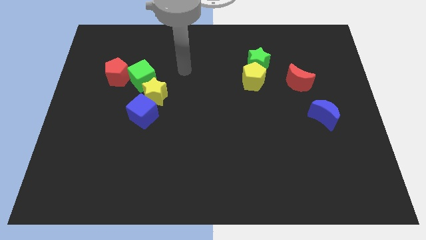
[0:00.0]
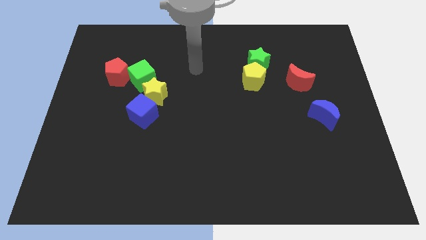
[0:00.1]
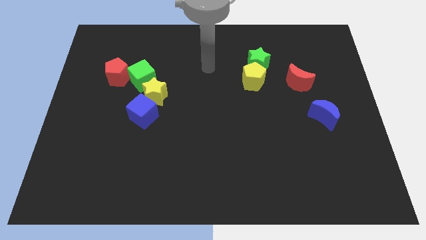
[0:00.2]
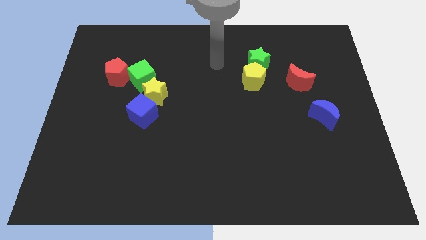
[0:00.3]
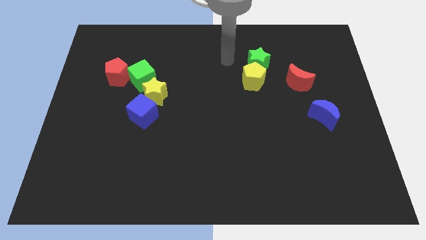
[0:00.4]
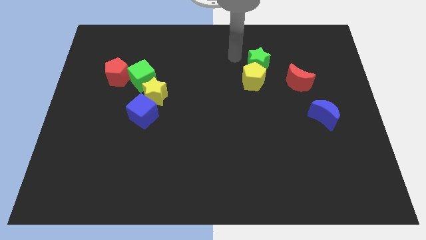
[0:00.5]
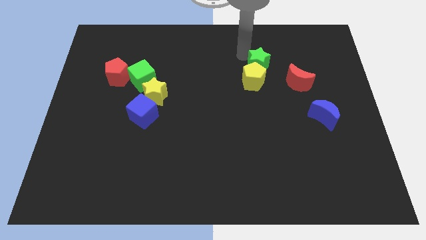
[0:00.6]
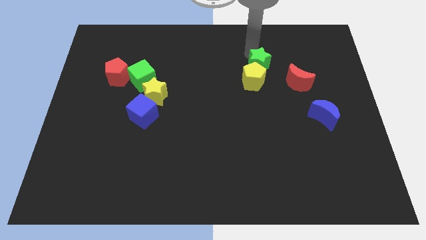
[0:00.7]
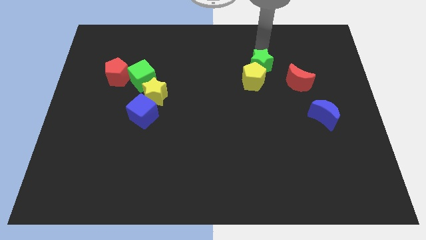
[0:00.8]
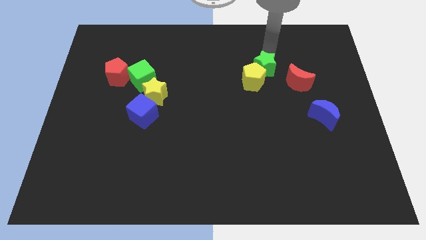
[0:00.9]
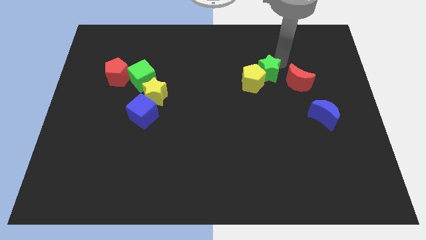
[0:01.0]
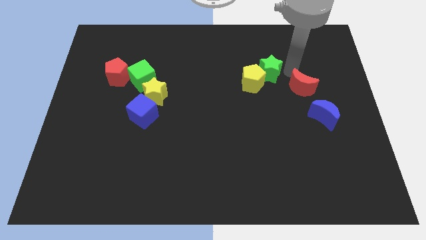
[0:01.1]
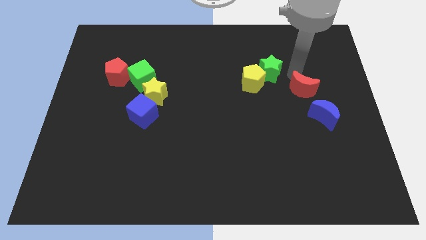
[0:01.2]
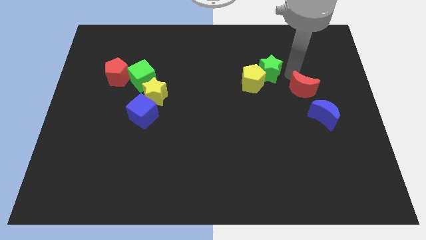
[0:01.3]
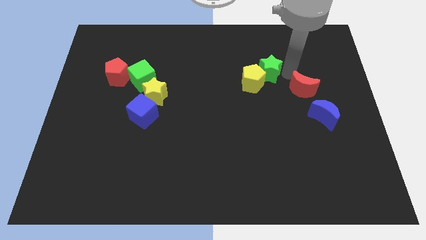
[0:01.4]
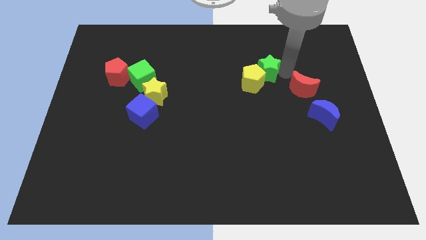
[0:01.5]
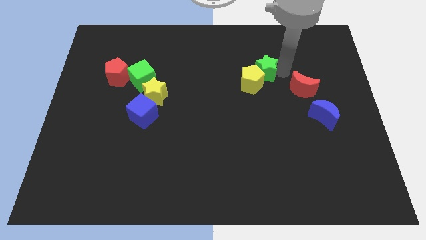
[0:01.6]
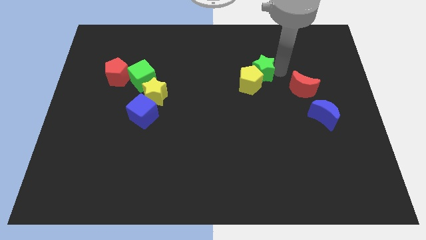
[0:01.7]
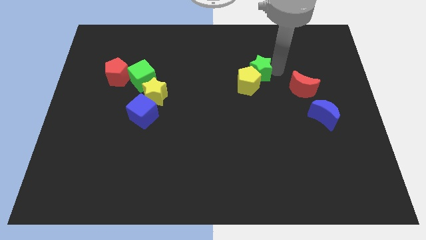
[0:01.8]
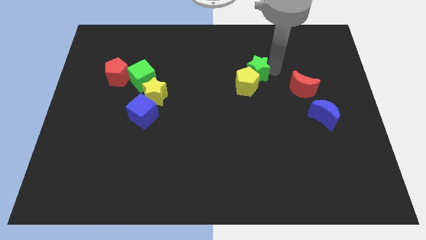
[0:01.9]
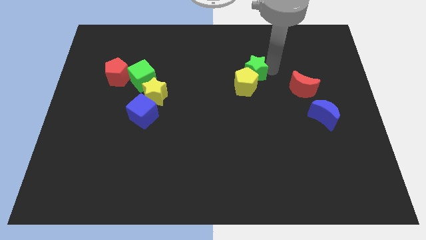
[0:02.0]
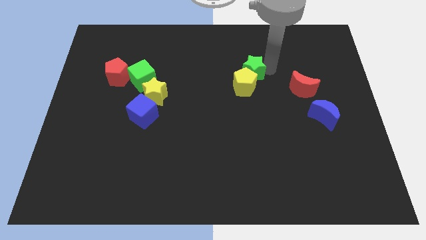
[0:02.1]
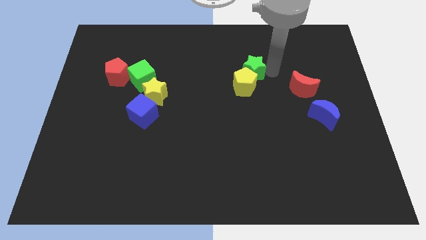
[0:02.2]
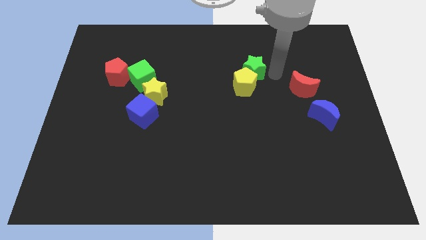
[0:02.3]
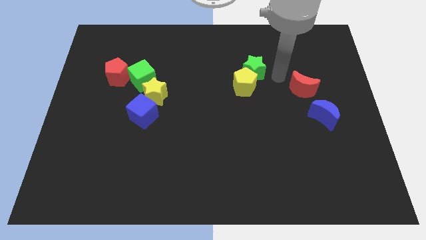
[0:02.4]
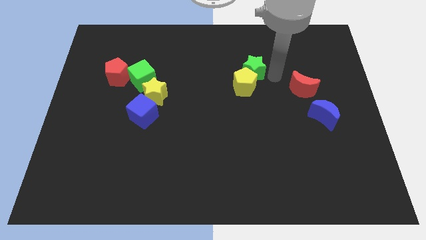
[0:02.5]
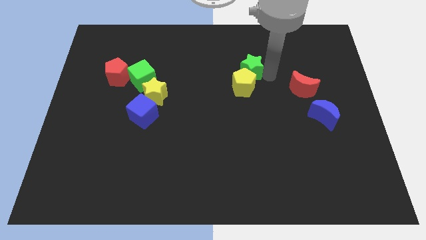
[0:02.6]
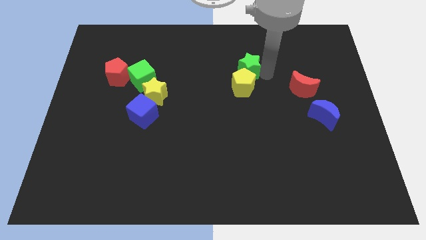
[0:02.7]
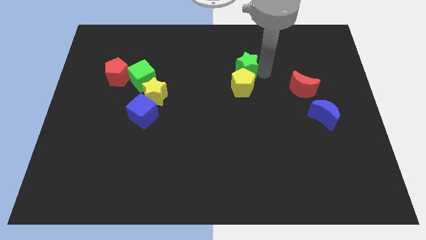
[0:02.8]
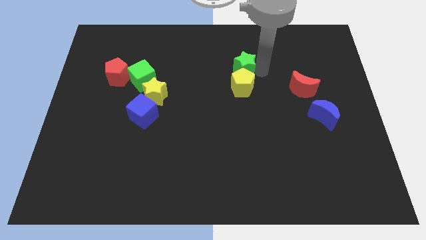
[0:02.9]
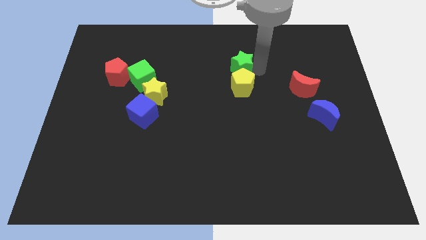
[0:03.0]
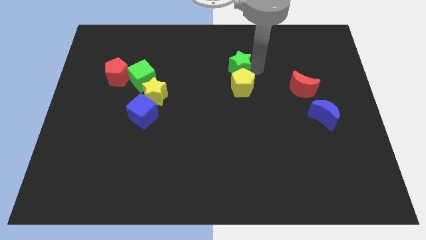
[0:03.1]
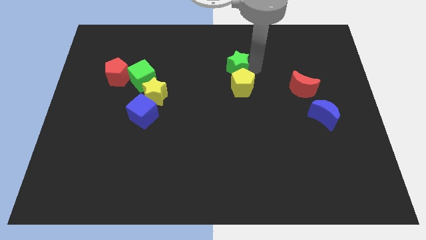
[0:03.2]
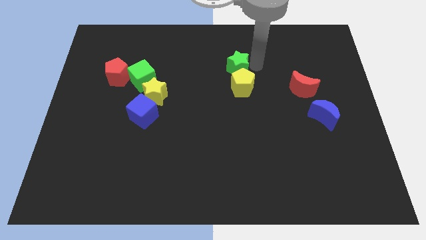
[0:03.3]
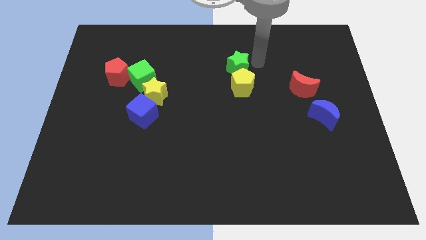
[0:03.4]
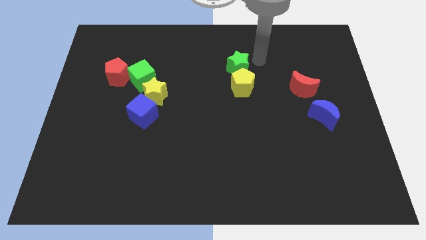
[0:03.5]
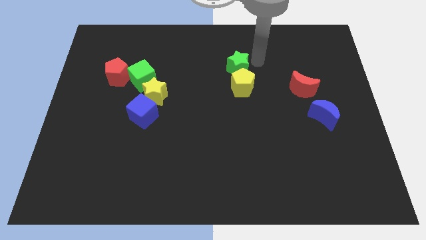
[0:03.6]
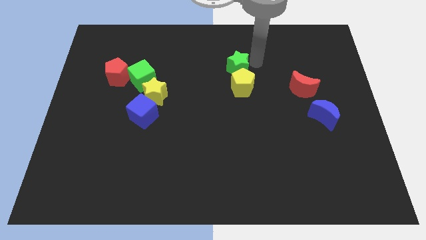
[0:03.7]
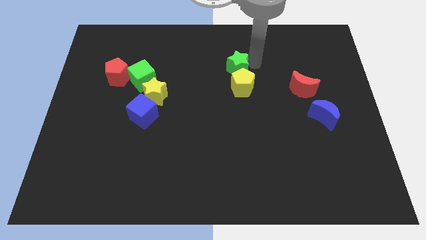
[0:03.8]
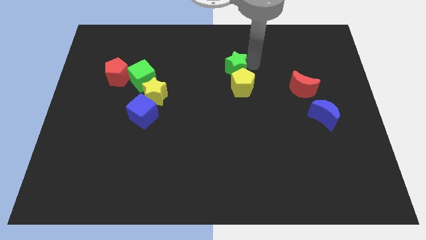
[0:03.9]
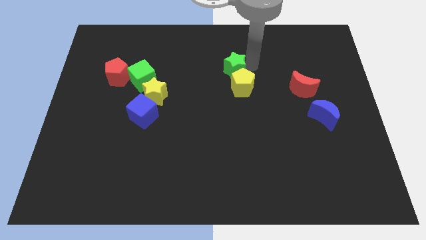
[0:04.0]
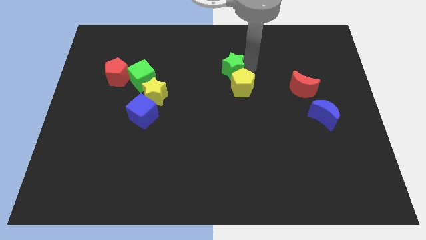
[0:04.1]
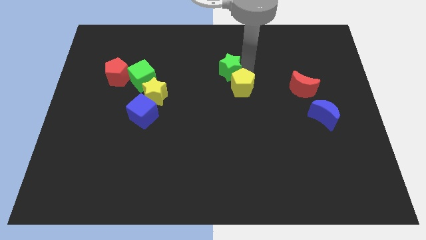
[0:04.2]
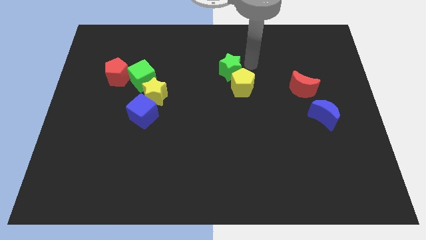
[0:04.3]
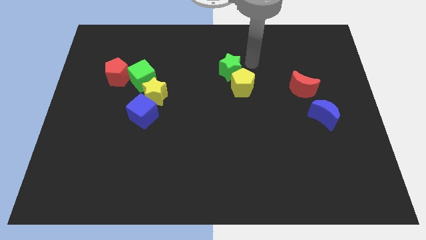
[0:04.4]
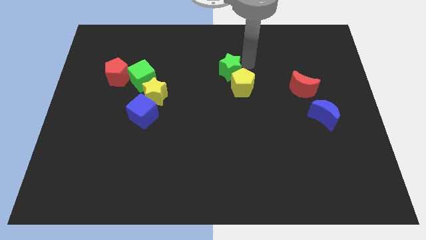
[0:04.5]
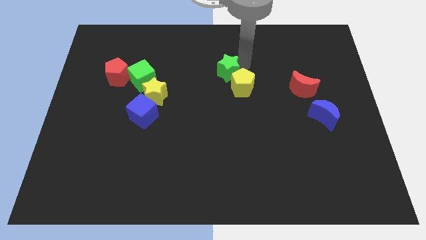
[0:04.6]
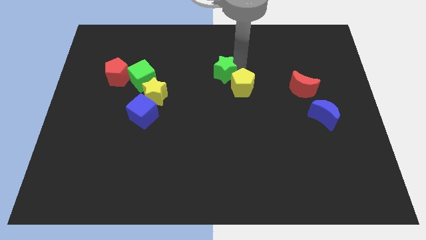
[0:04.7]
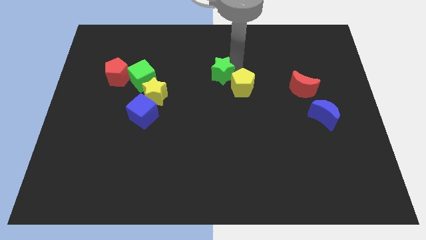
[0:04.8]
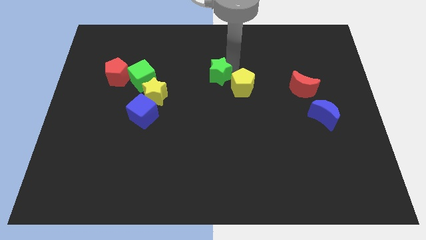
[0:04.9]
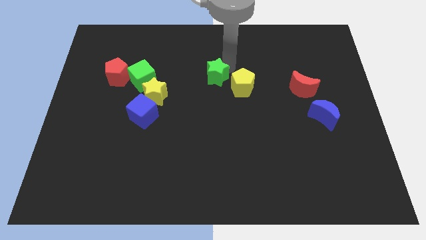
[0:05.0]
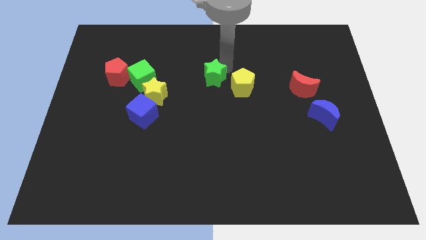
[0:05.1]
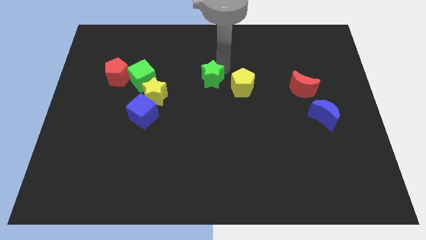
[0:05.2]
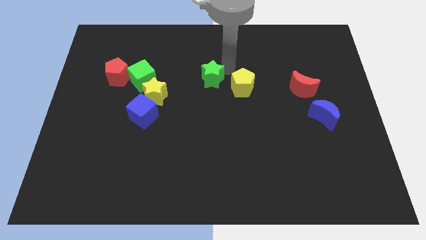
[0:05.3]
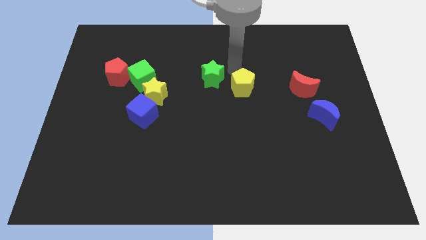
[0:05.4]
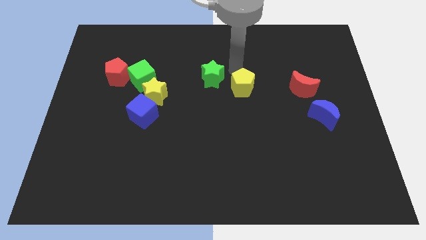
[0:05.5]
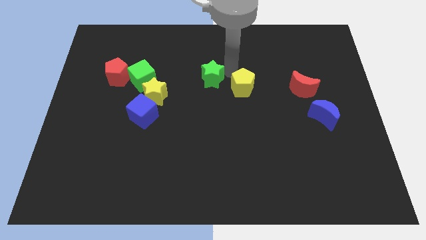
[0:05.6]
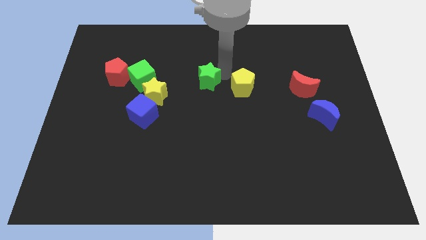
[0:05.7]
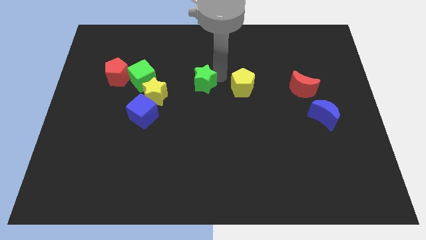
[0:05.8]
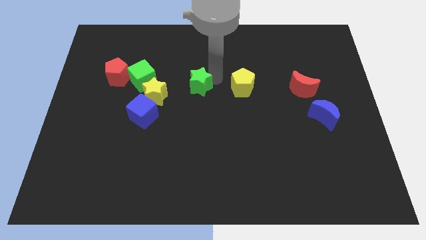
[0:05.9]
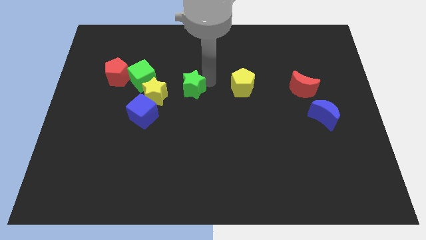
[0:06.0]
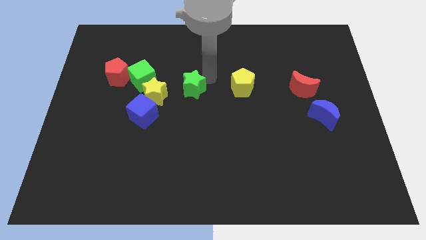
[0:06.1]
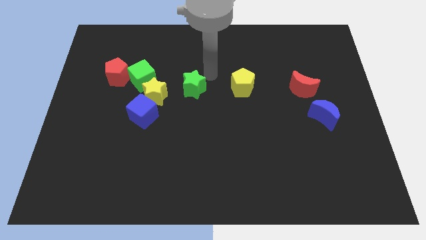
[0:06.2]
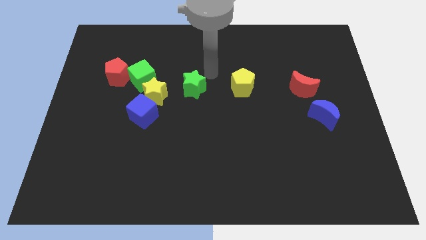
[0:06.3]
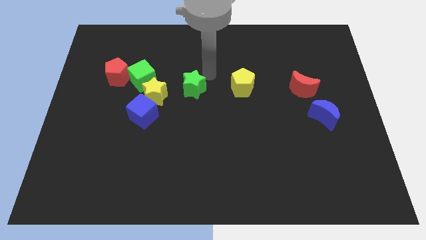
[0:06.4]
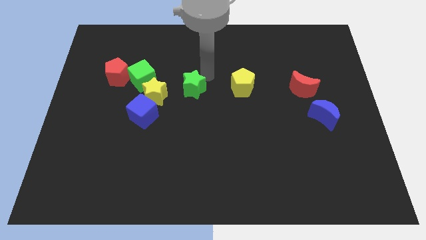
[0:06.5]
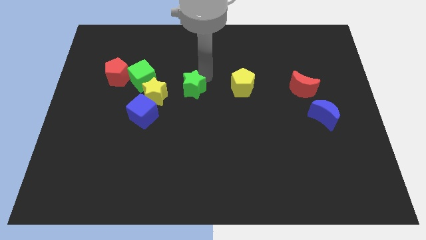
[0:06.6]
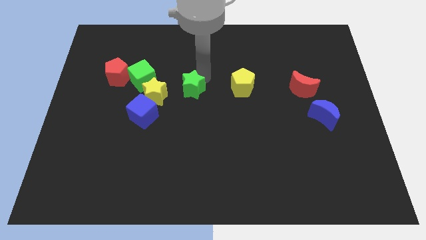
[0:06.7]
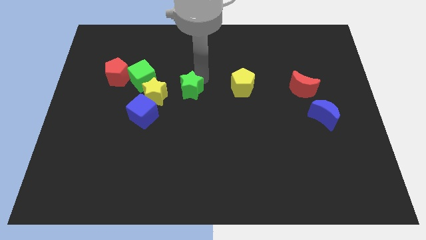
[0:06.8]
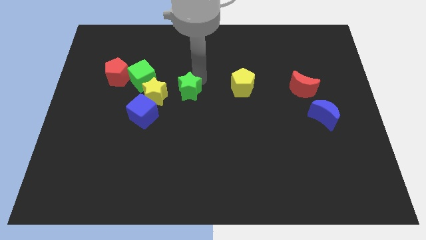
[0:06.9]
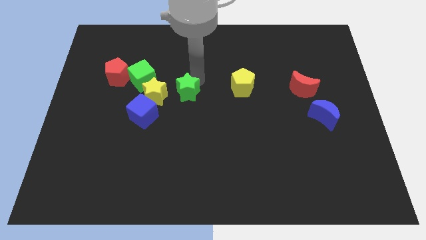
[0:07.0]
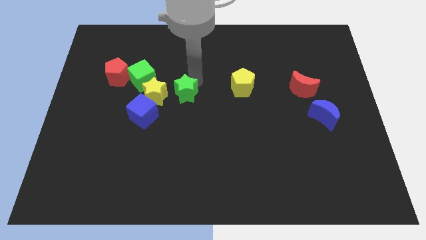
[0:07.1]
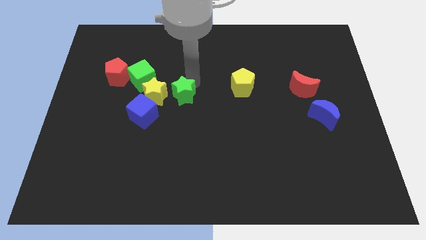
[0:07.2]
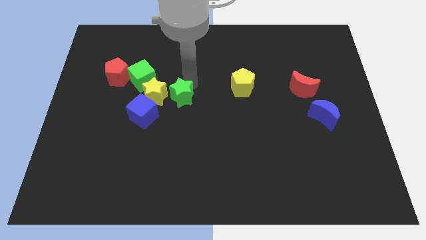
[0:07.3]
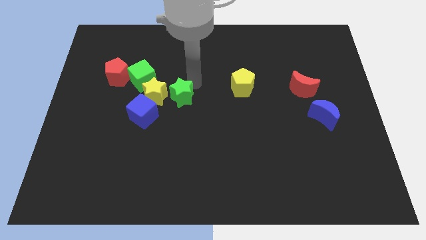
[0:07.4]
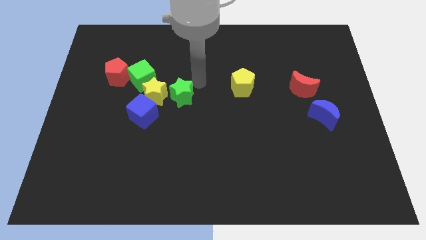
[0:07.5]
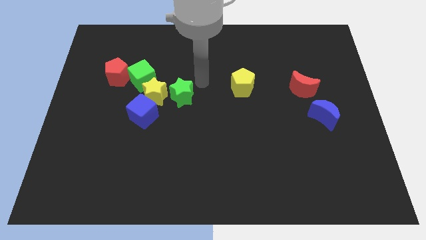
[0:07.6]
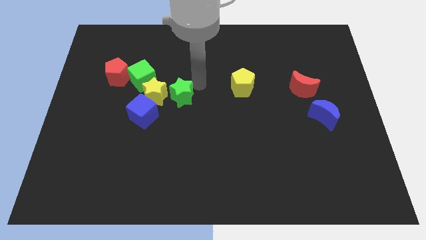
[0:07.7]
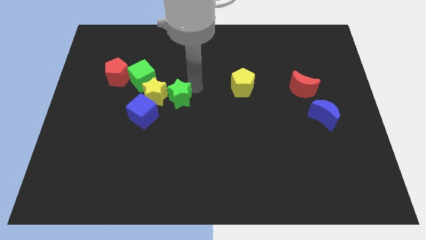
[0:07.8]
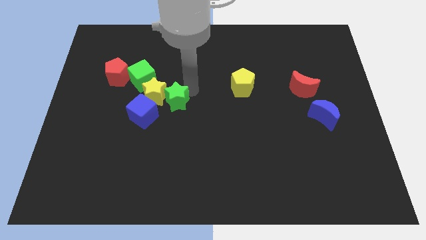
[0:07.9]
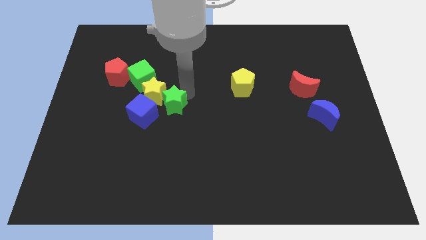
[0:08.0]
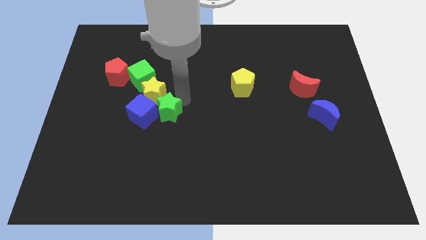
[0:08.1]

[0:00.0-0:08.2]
put the green star close to the blue cube
